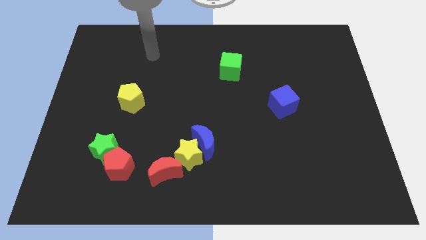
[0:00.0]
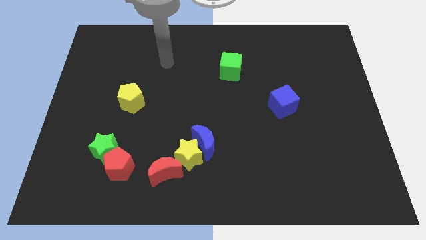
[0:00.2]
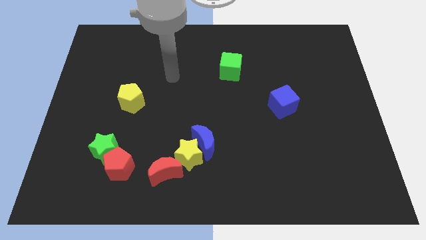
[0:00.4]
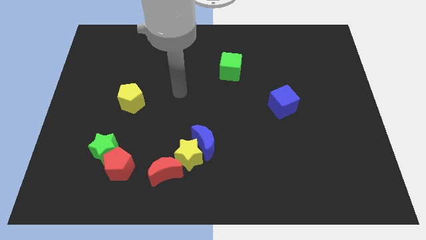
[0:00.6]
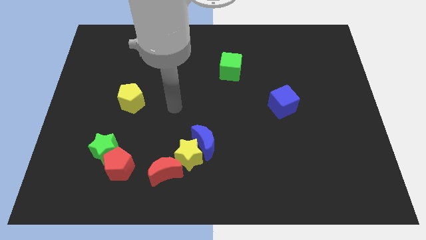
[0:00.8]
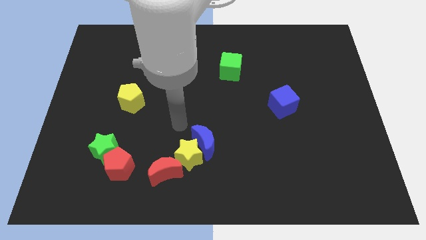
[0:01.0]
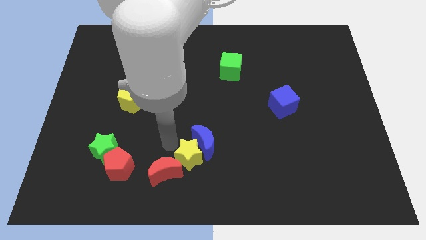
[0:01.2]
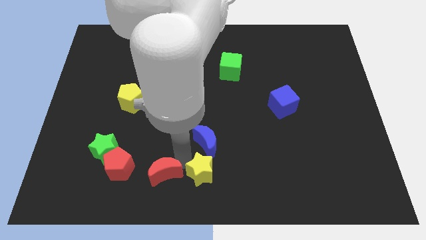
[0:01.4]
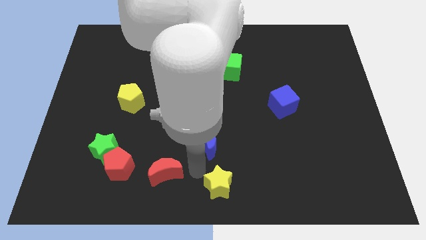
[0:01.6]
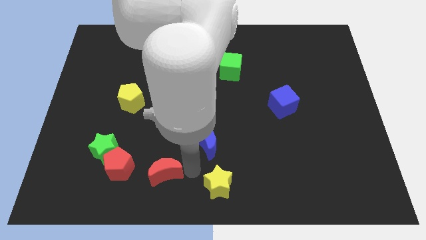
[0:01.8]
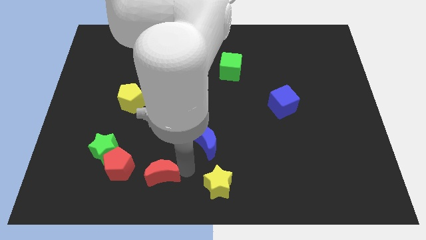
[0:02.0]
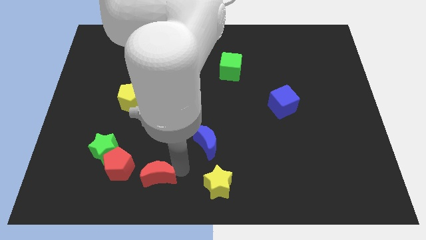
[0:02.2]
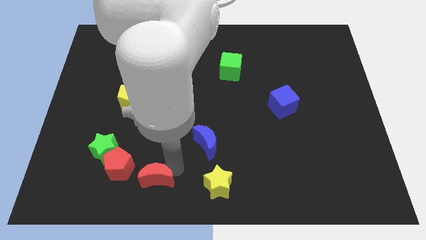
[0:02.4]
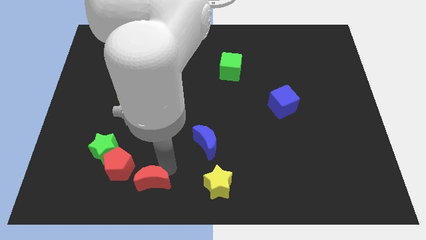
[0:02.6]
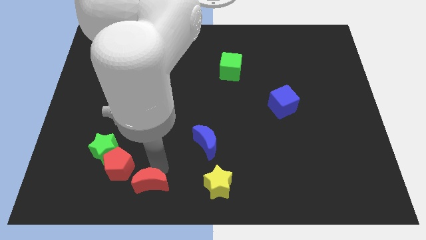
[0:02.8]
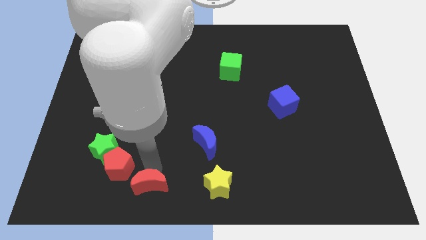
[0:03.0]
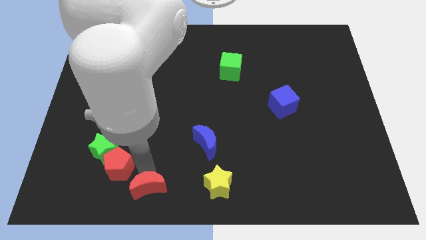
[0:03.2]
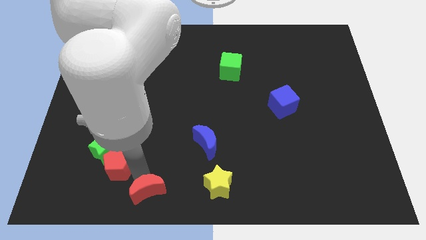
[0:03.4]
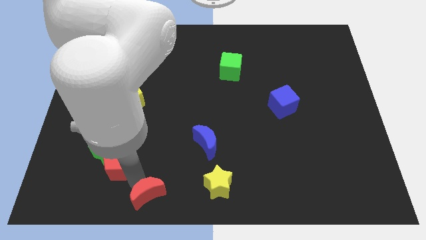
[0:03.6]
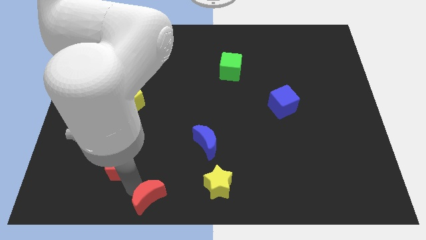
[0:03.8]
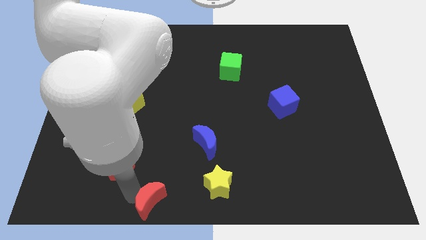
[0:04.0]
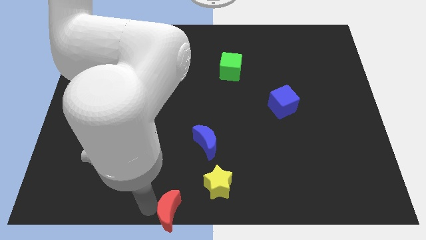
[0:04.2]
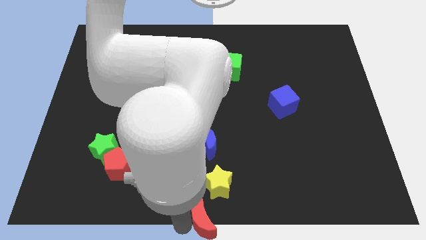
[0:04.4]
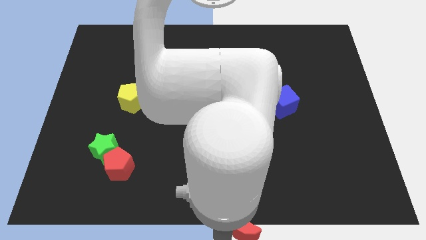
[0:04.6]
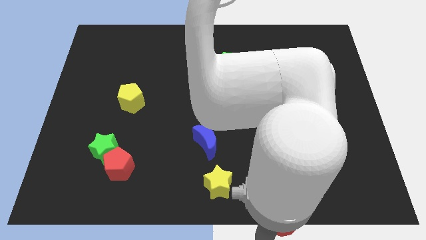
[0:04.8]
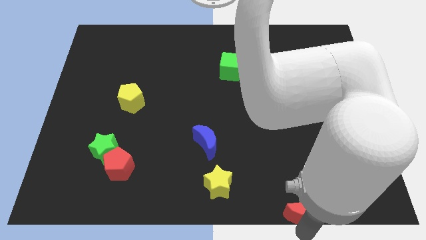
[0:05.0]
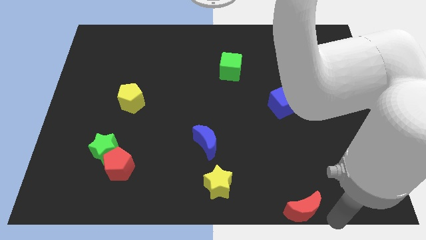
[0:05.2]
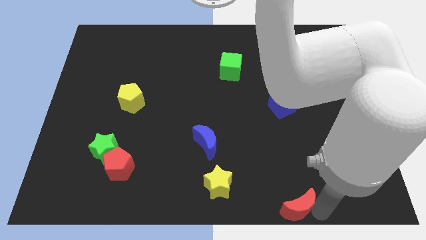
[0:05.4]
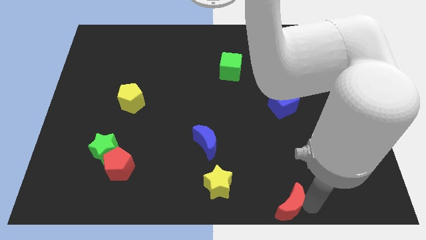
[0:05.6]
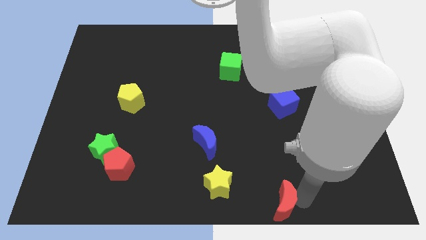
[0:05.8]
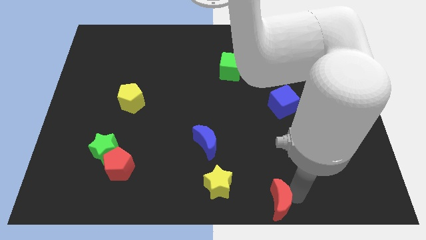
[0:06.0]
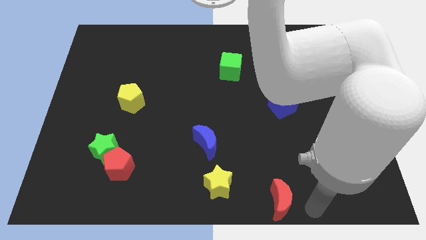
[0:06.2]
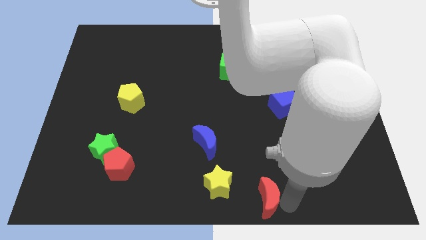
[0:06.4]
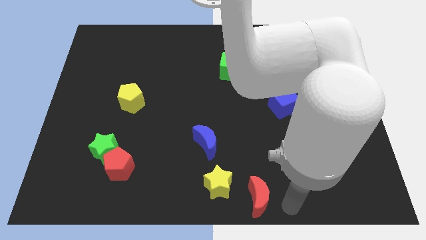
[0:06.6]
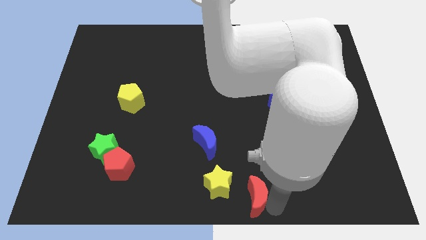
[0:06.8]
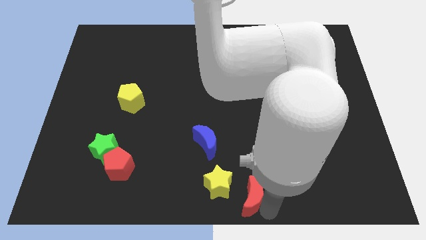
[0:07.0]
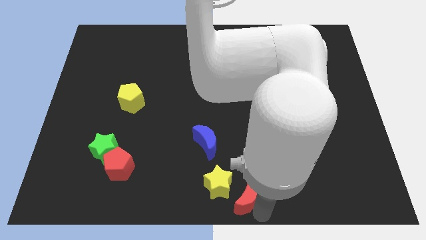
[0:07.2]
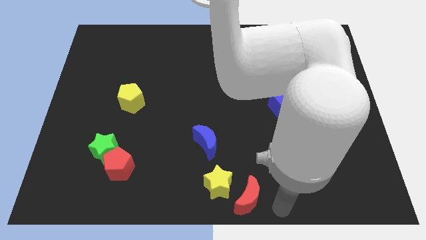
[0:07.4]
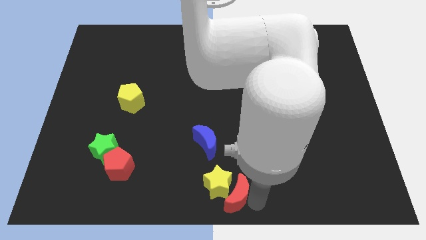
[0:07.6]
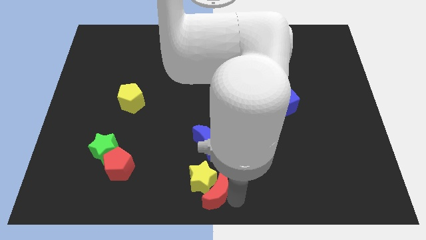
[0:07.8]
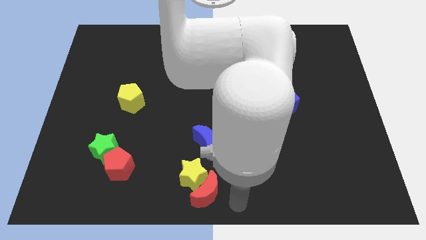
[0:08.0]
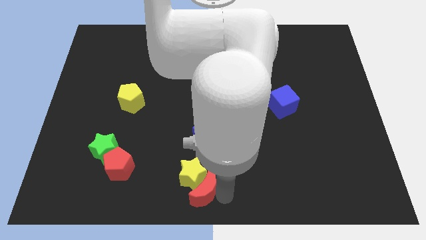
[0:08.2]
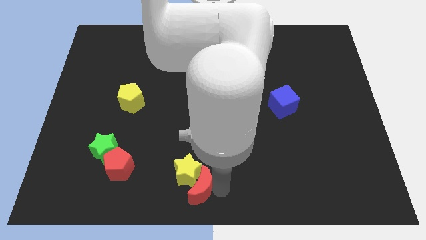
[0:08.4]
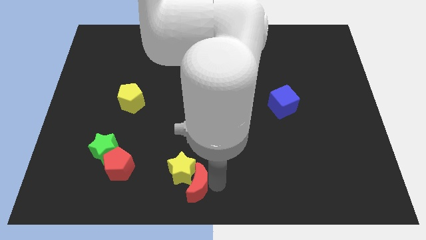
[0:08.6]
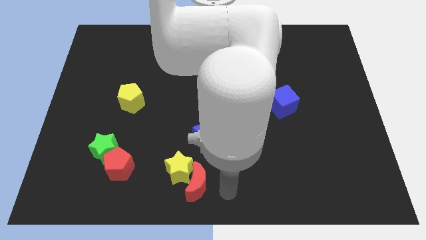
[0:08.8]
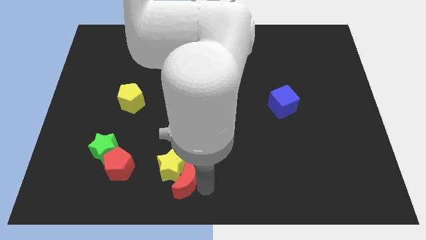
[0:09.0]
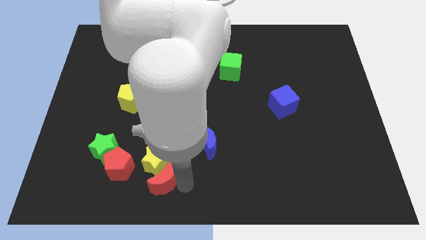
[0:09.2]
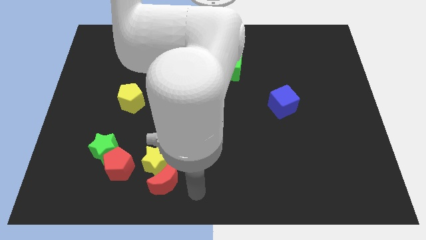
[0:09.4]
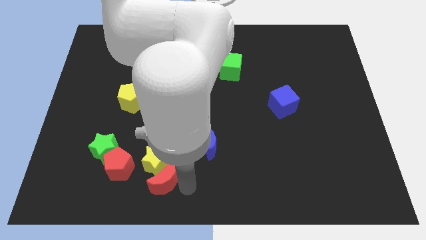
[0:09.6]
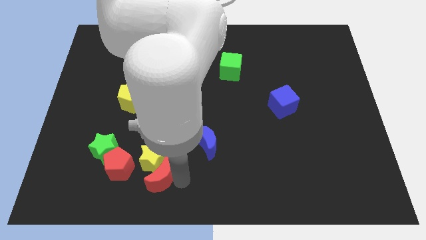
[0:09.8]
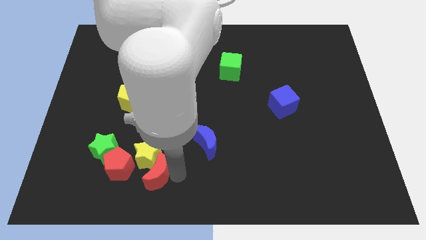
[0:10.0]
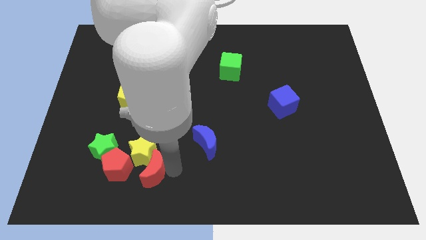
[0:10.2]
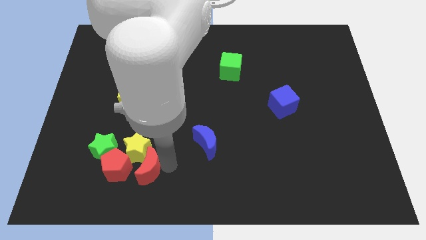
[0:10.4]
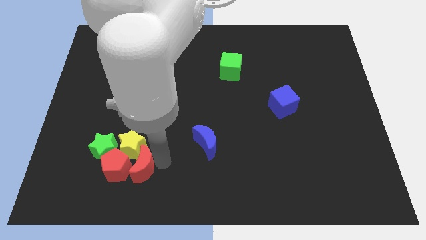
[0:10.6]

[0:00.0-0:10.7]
move the red moon to the red pentagon

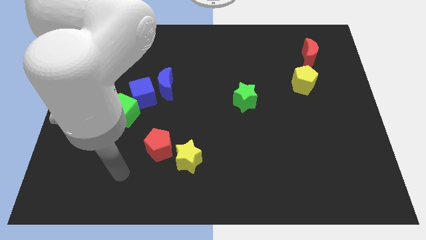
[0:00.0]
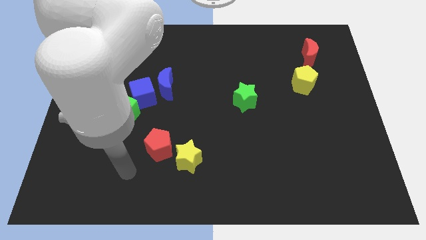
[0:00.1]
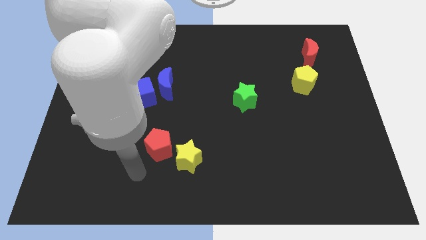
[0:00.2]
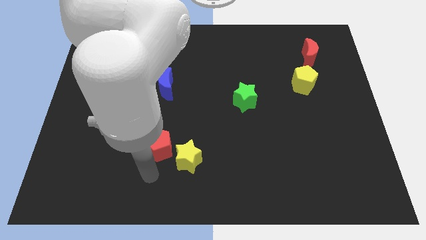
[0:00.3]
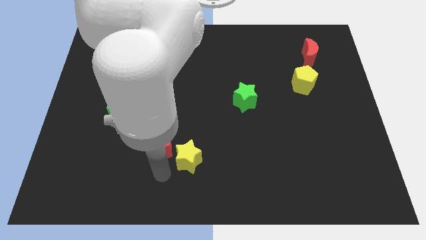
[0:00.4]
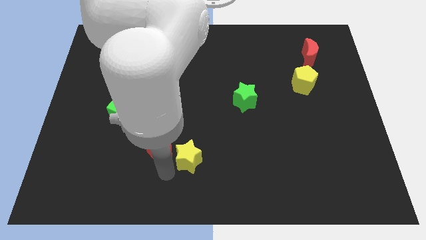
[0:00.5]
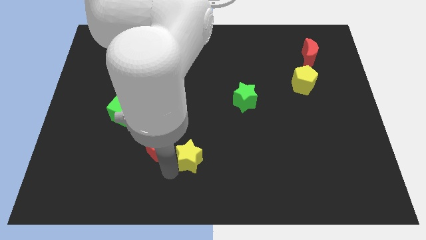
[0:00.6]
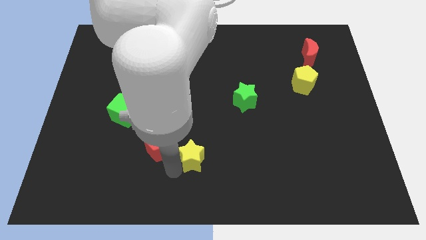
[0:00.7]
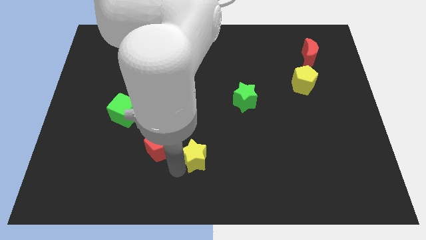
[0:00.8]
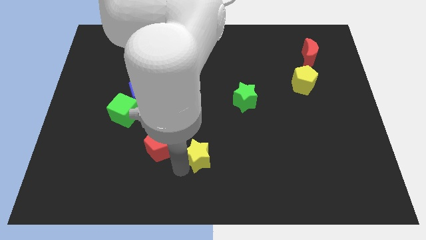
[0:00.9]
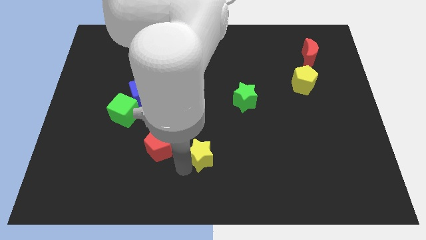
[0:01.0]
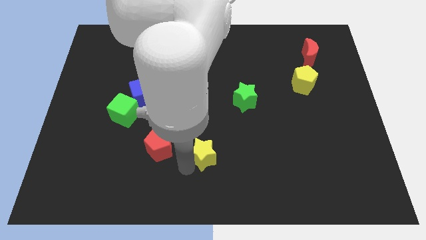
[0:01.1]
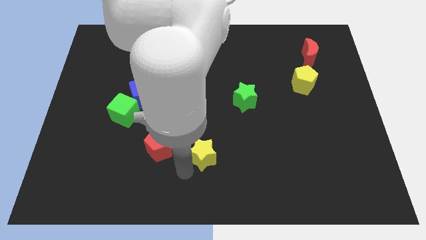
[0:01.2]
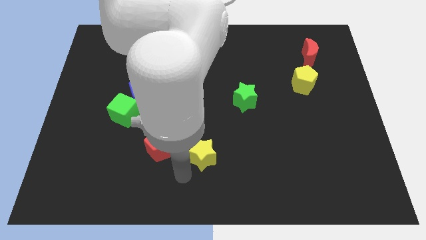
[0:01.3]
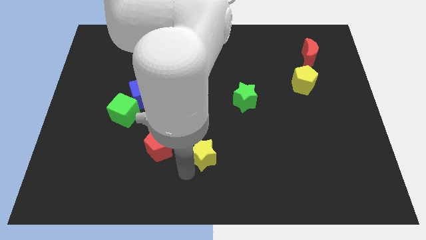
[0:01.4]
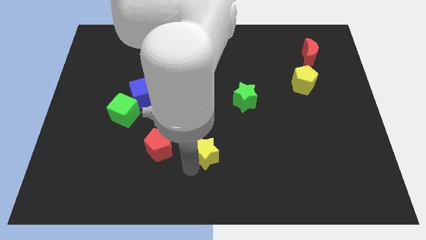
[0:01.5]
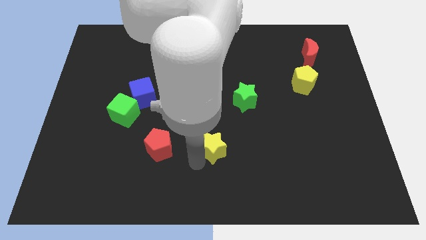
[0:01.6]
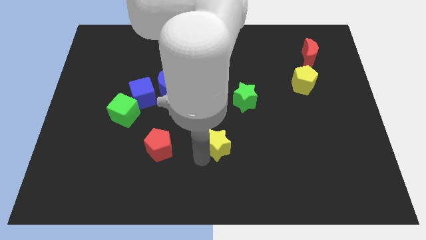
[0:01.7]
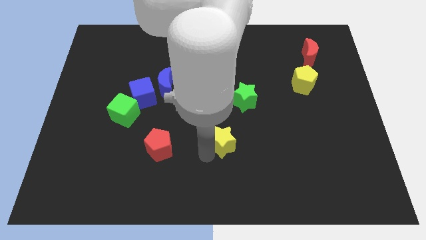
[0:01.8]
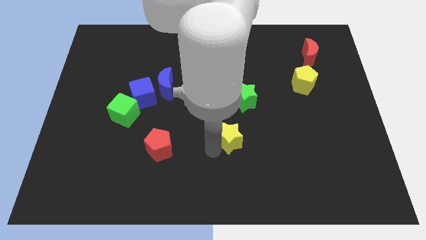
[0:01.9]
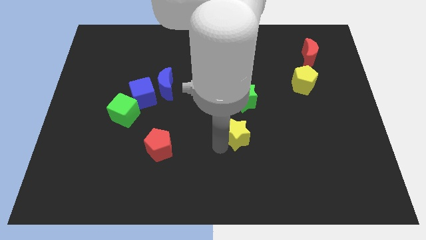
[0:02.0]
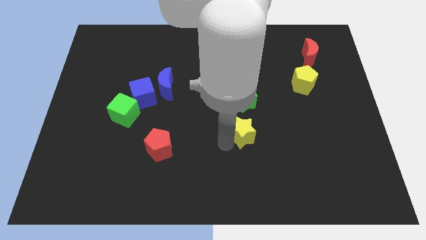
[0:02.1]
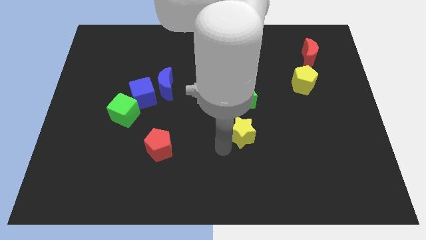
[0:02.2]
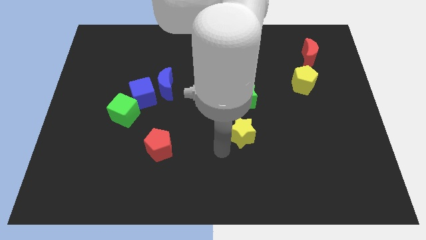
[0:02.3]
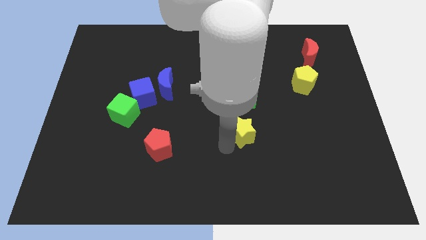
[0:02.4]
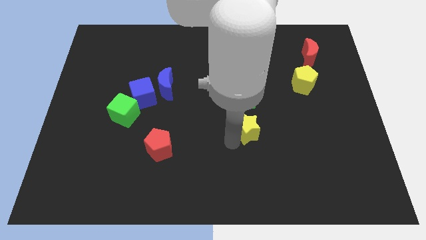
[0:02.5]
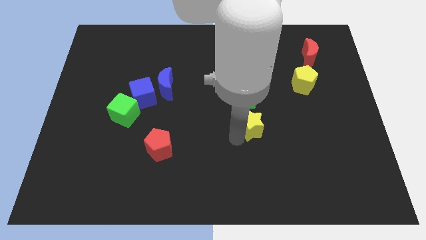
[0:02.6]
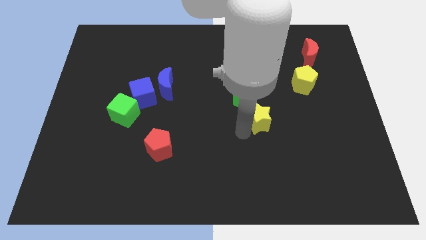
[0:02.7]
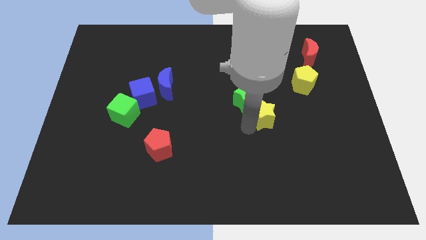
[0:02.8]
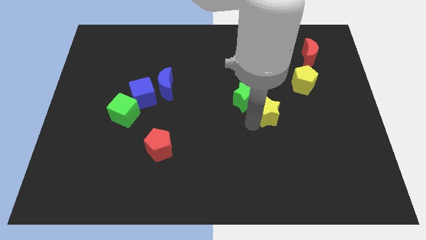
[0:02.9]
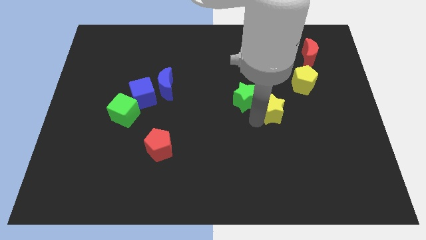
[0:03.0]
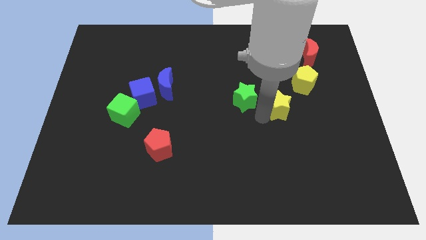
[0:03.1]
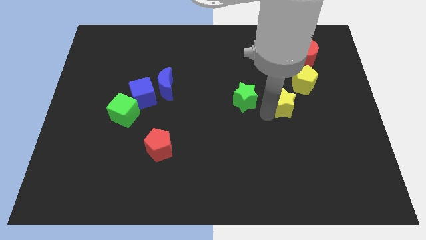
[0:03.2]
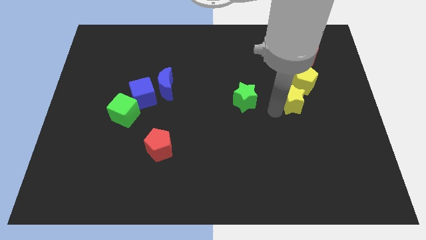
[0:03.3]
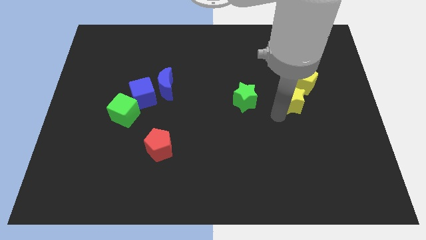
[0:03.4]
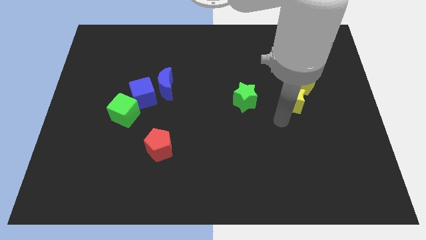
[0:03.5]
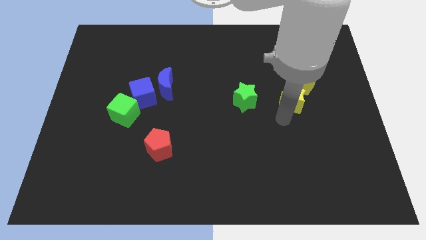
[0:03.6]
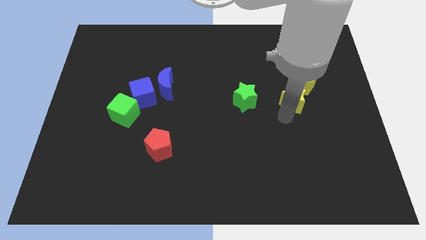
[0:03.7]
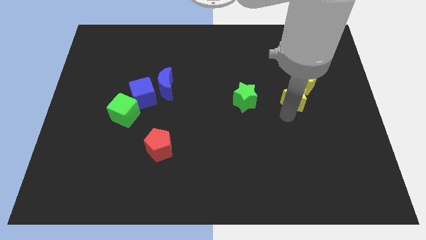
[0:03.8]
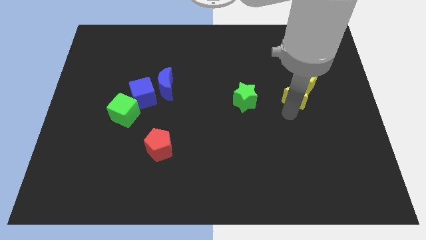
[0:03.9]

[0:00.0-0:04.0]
move the yellow star towards the yellow pentagon
